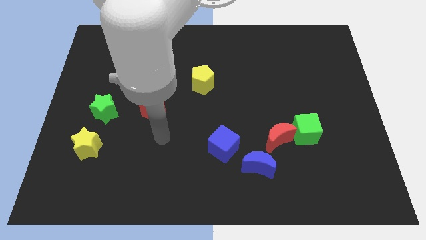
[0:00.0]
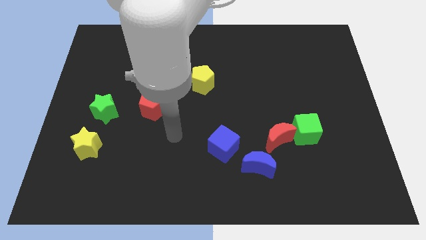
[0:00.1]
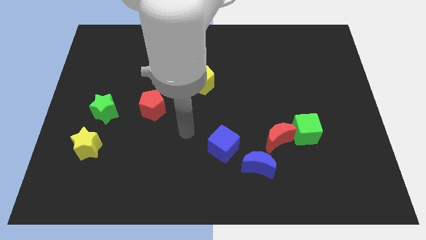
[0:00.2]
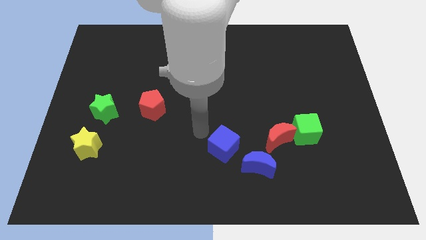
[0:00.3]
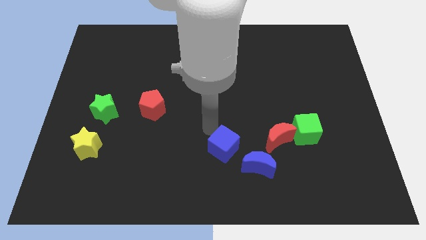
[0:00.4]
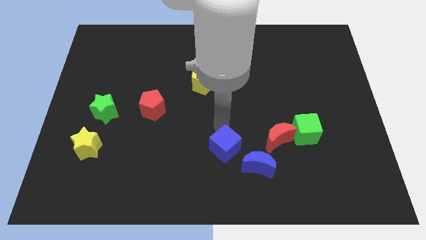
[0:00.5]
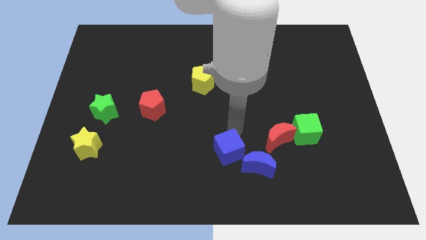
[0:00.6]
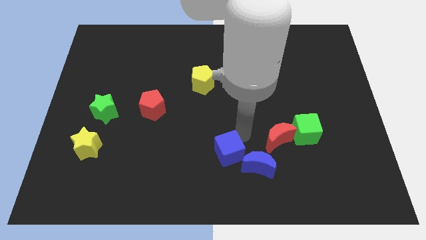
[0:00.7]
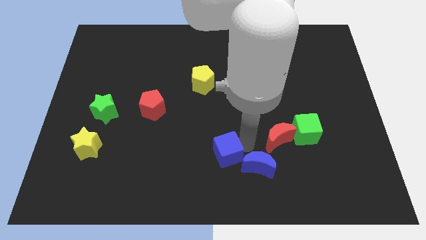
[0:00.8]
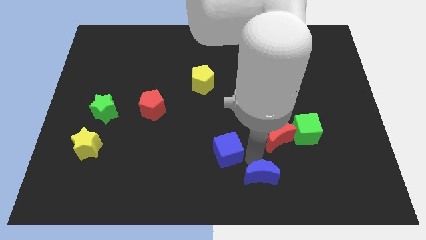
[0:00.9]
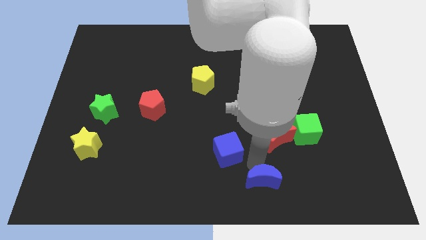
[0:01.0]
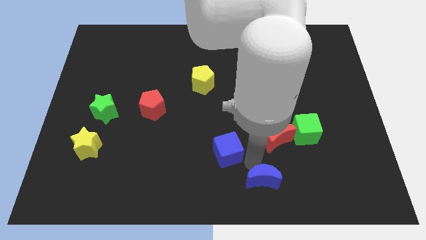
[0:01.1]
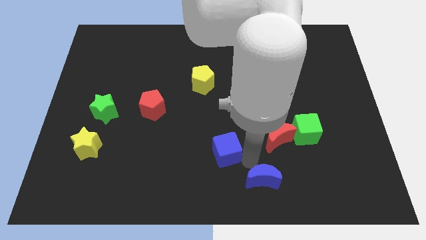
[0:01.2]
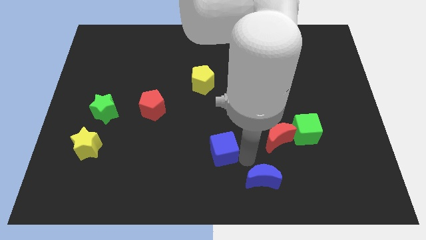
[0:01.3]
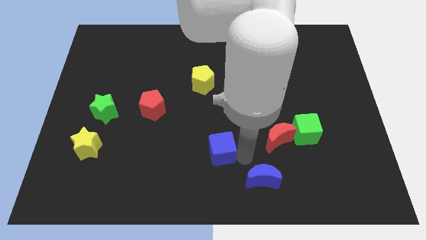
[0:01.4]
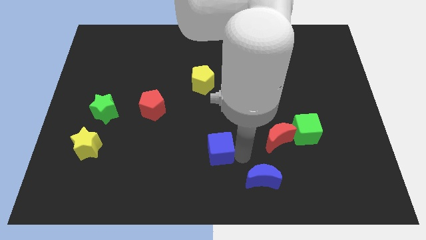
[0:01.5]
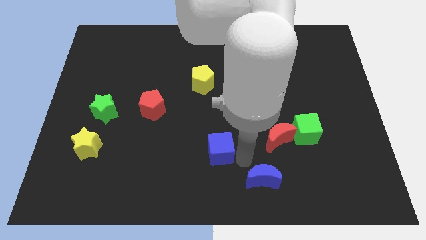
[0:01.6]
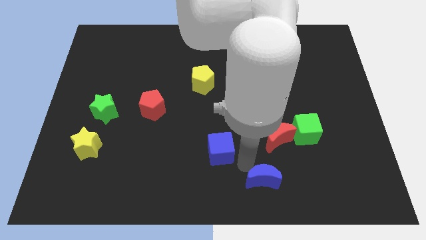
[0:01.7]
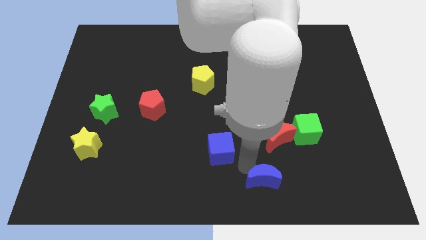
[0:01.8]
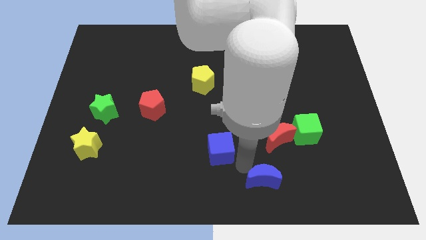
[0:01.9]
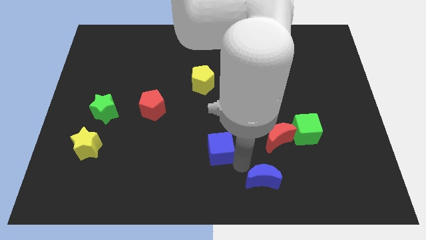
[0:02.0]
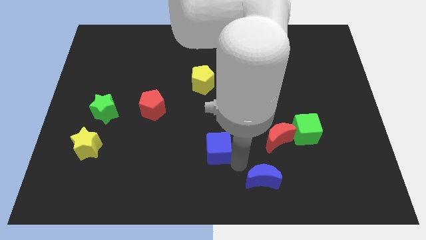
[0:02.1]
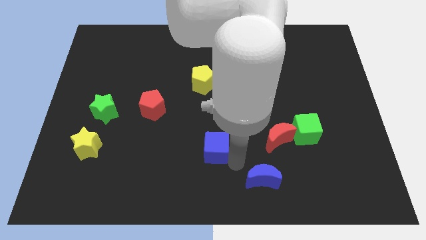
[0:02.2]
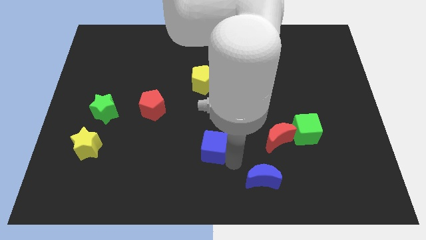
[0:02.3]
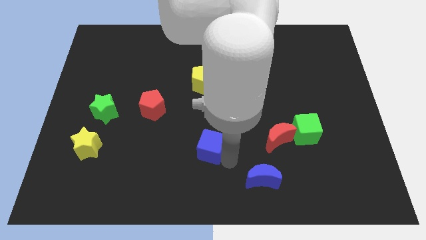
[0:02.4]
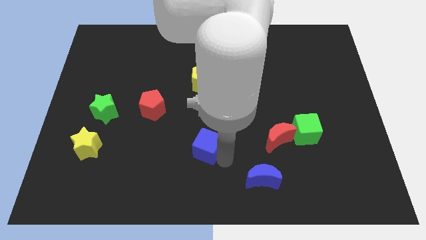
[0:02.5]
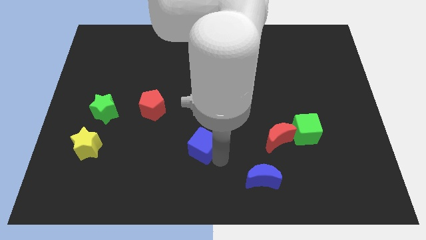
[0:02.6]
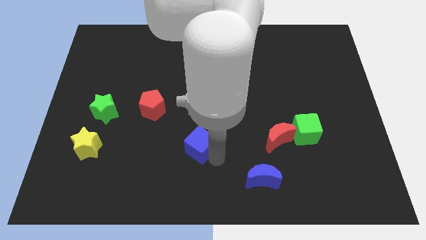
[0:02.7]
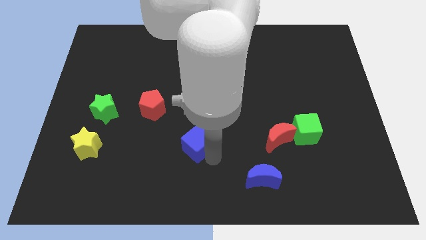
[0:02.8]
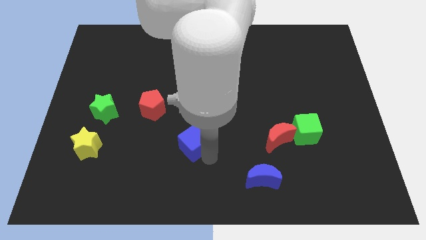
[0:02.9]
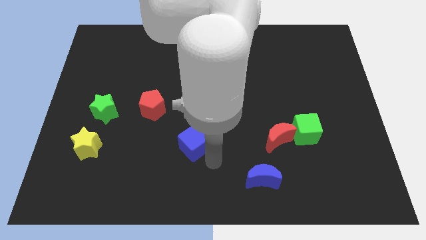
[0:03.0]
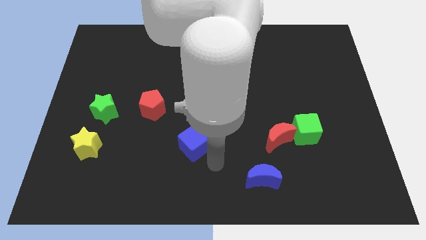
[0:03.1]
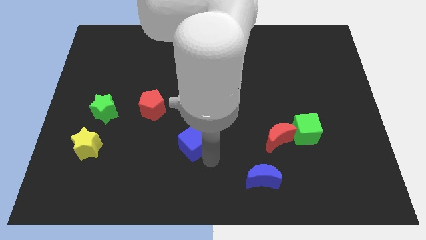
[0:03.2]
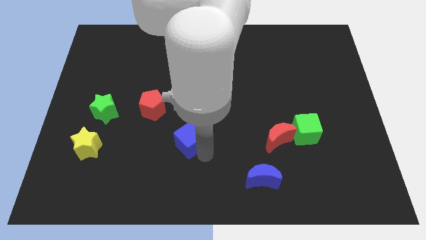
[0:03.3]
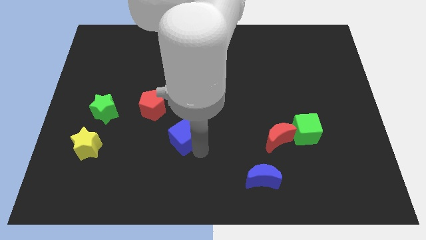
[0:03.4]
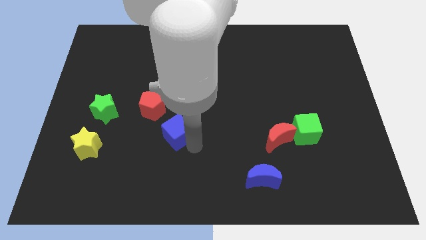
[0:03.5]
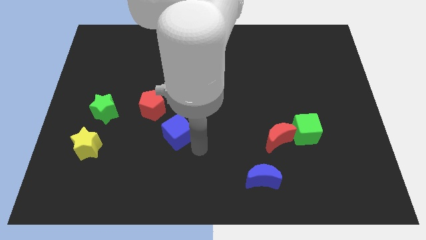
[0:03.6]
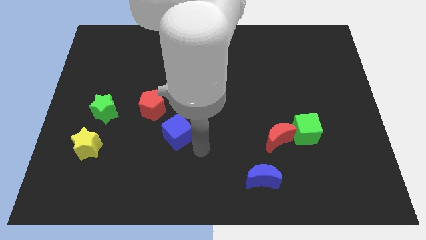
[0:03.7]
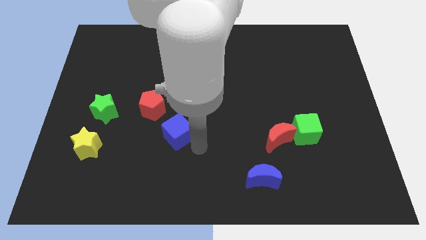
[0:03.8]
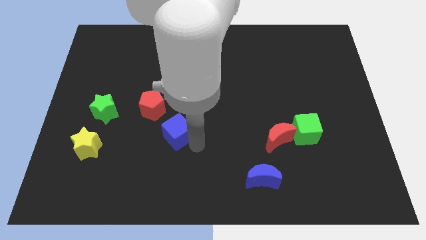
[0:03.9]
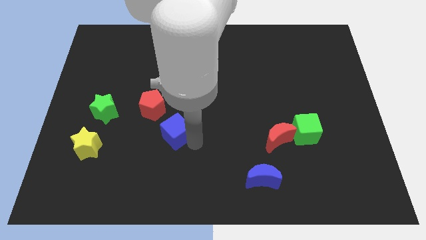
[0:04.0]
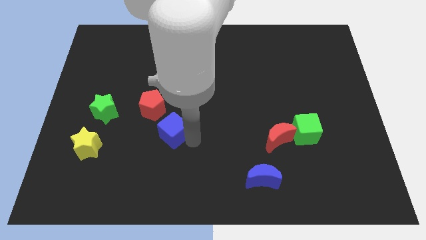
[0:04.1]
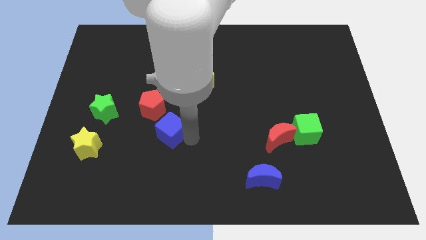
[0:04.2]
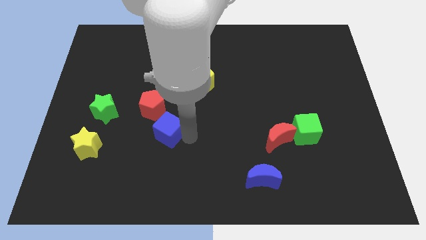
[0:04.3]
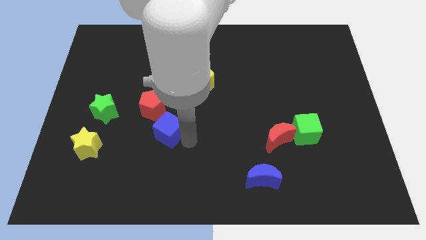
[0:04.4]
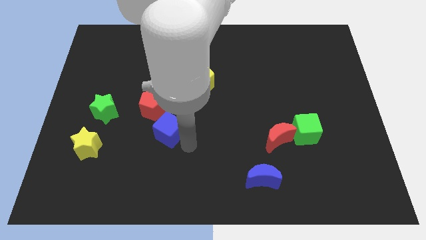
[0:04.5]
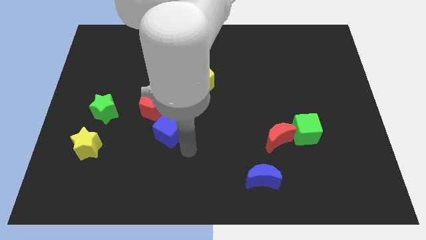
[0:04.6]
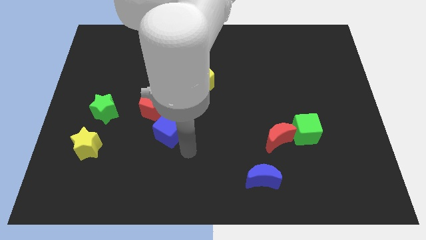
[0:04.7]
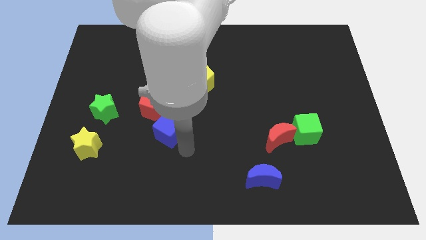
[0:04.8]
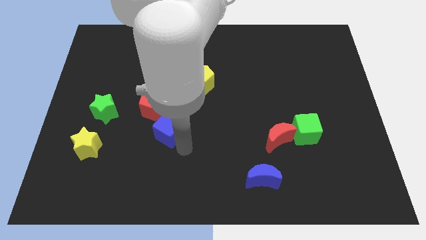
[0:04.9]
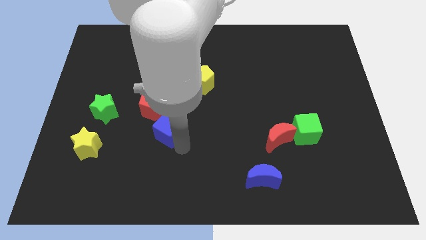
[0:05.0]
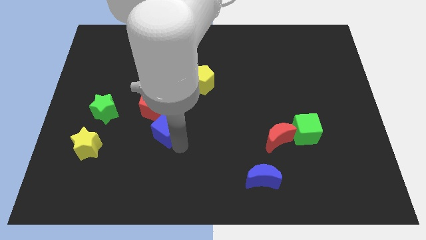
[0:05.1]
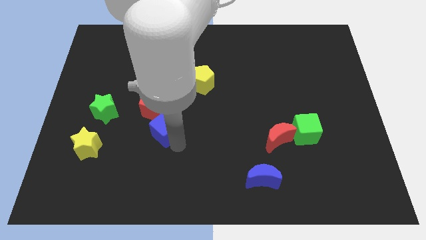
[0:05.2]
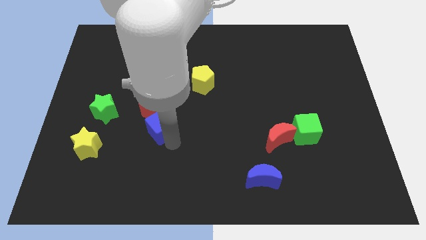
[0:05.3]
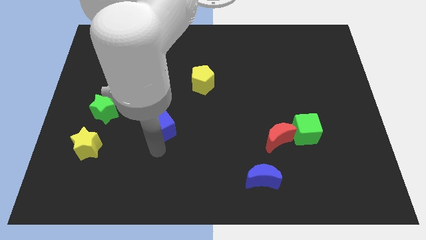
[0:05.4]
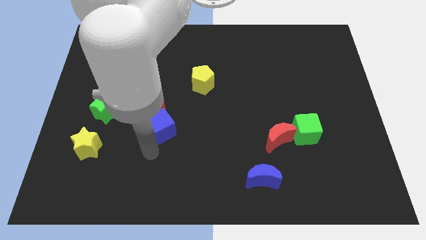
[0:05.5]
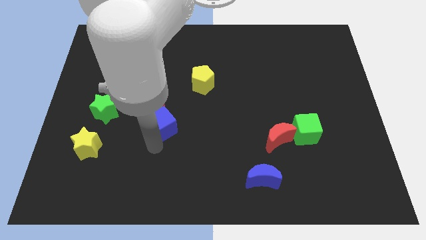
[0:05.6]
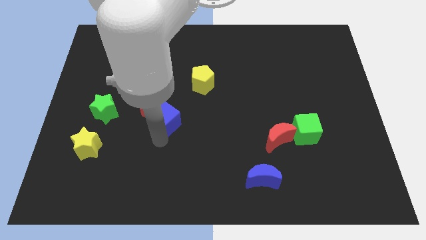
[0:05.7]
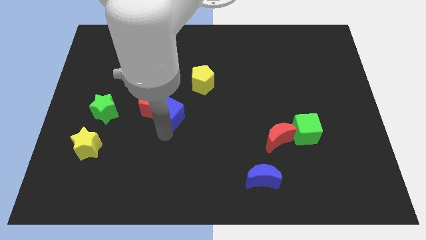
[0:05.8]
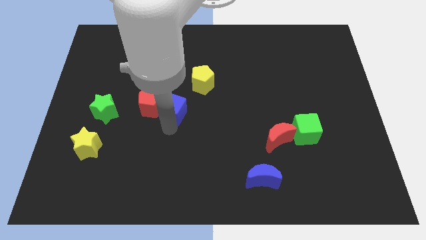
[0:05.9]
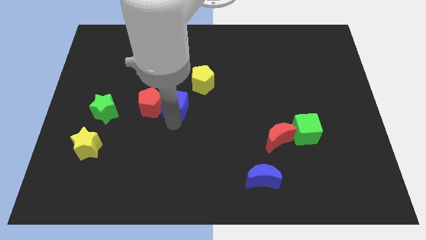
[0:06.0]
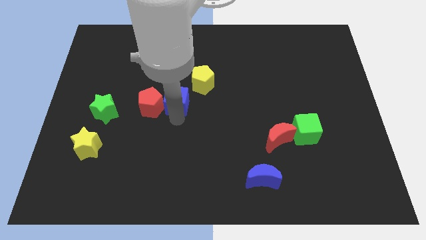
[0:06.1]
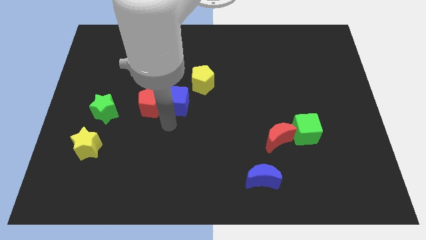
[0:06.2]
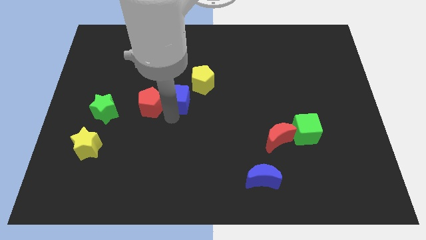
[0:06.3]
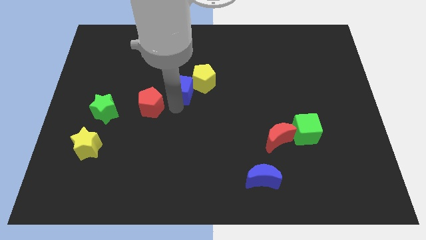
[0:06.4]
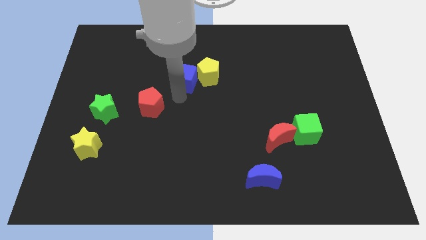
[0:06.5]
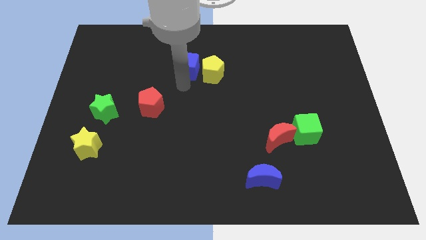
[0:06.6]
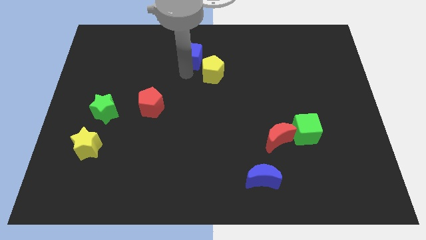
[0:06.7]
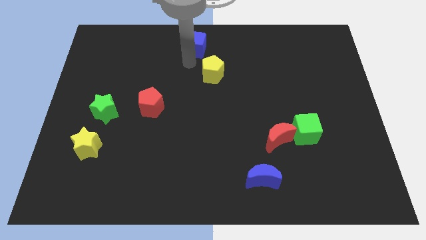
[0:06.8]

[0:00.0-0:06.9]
slide the blue cube to the top
